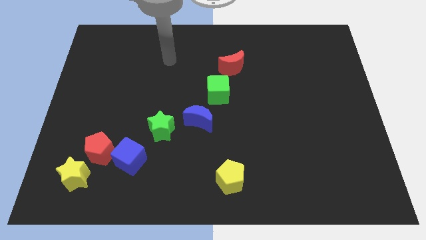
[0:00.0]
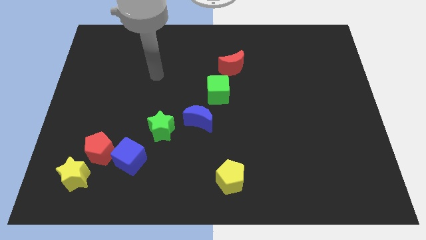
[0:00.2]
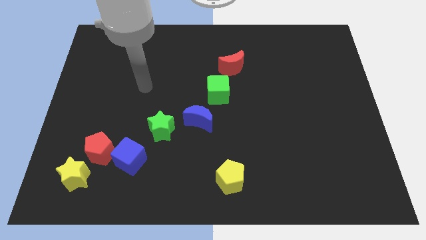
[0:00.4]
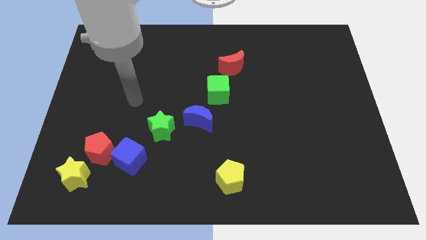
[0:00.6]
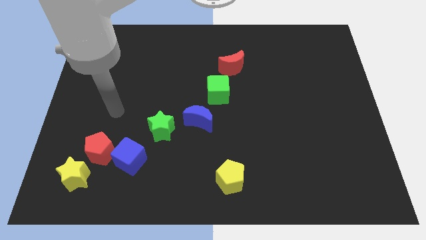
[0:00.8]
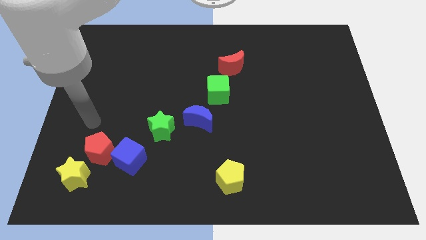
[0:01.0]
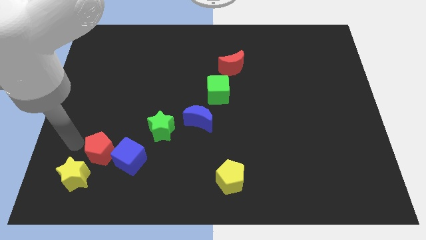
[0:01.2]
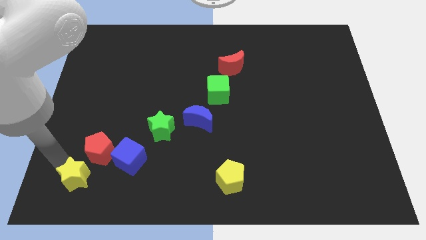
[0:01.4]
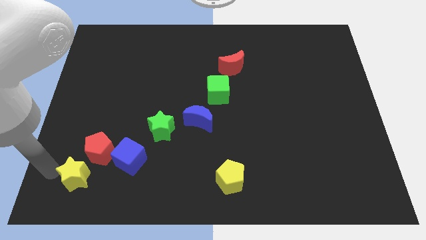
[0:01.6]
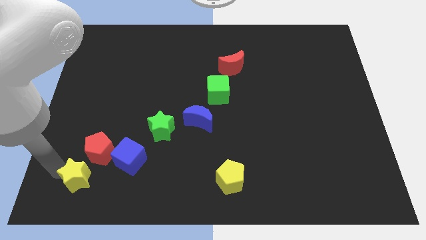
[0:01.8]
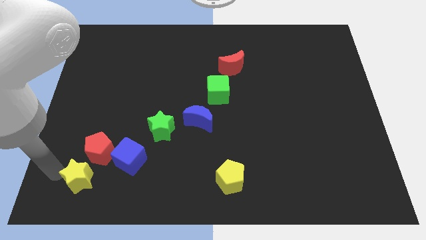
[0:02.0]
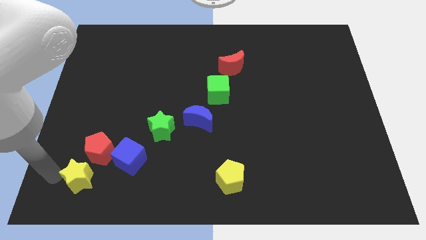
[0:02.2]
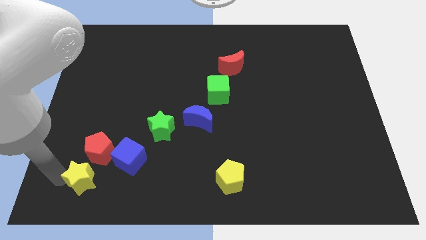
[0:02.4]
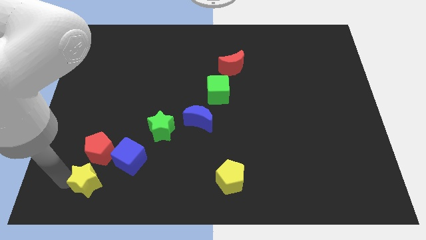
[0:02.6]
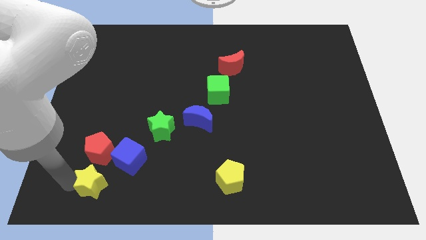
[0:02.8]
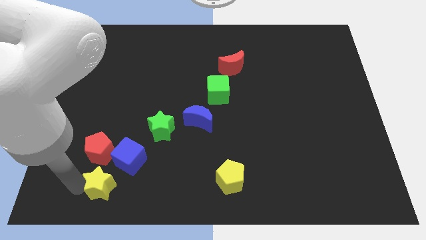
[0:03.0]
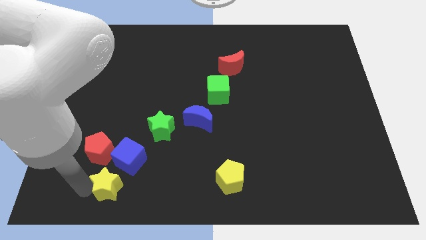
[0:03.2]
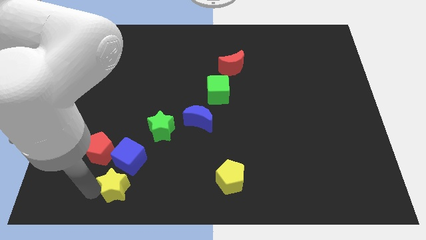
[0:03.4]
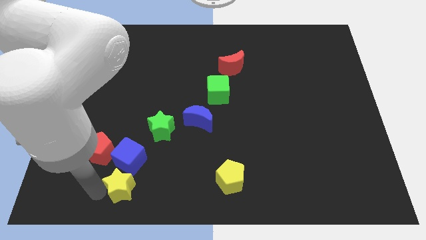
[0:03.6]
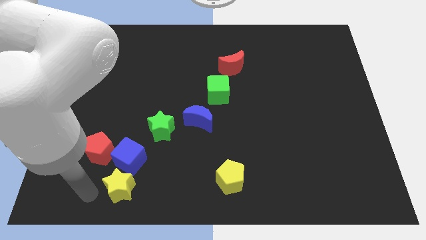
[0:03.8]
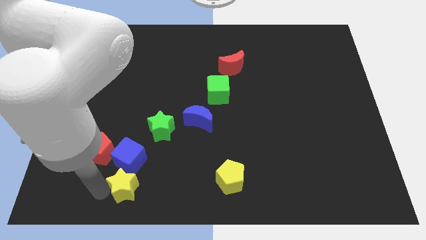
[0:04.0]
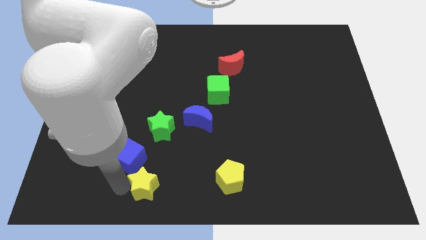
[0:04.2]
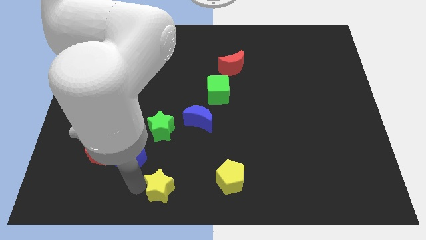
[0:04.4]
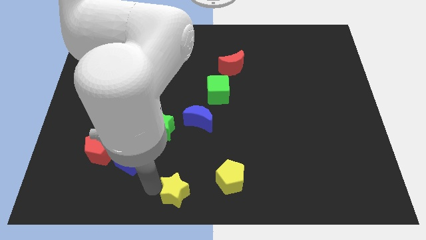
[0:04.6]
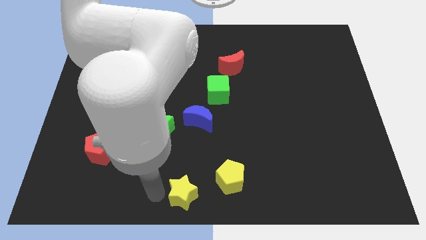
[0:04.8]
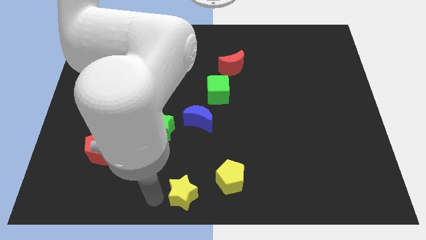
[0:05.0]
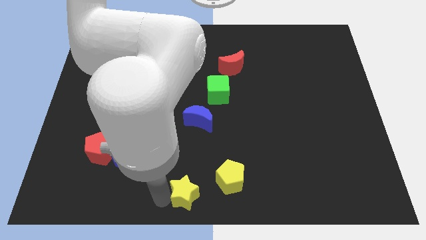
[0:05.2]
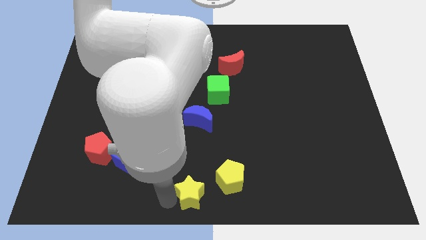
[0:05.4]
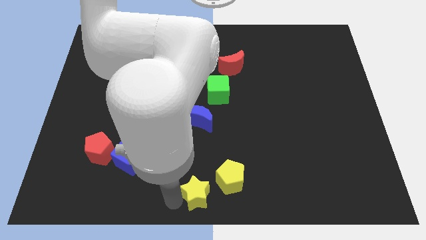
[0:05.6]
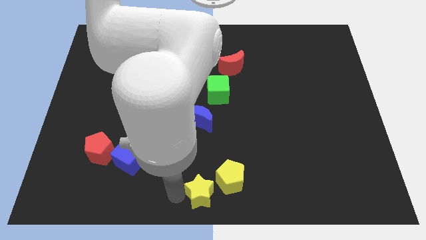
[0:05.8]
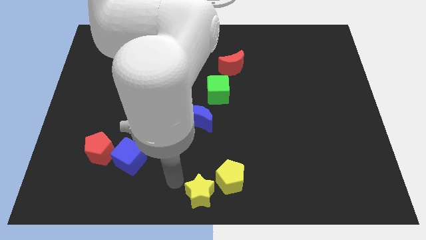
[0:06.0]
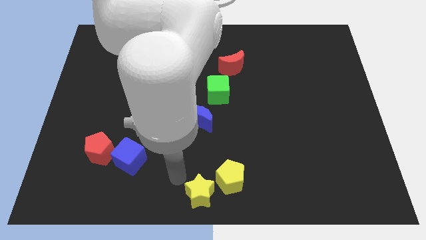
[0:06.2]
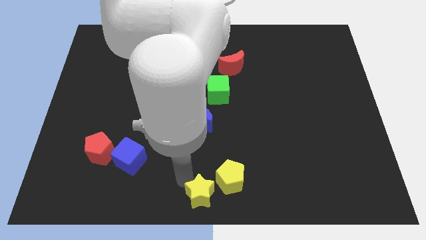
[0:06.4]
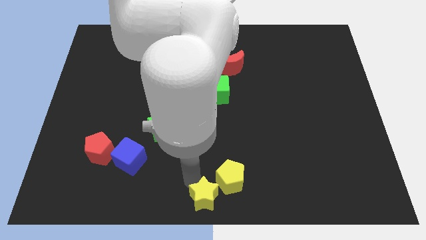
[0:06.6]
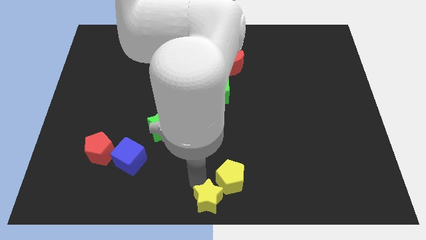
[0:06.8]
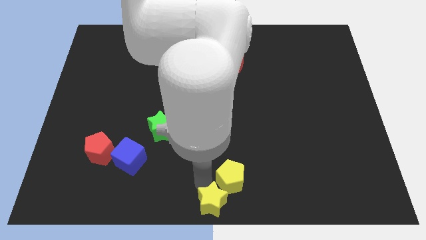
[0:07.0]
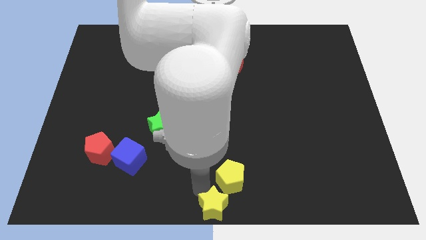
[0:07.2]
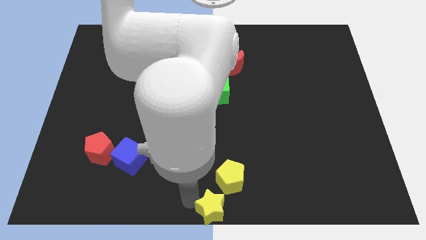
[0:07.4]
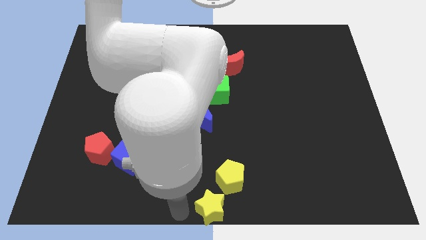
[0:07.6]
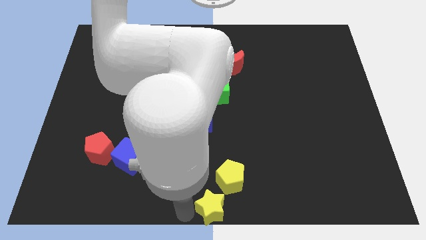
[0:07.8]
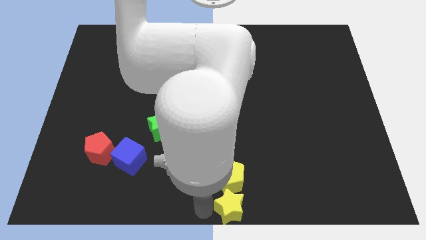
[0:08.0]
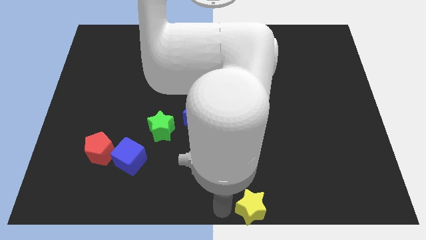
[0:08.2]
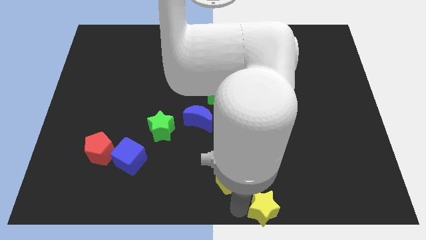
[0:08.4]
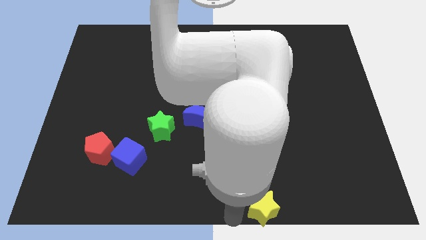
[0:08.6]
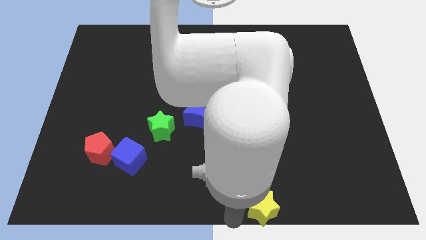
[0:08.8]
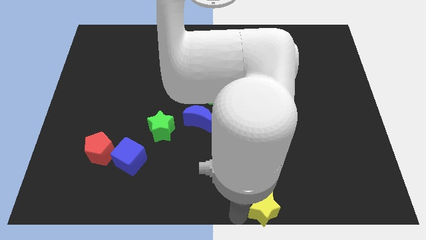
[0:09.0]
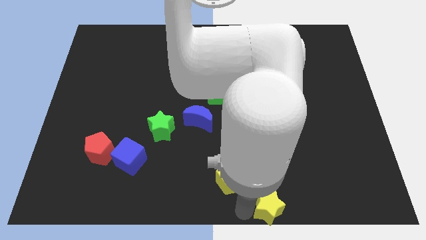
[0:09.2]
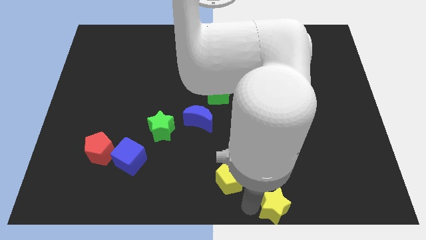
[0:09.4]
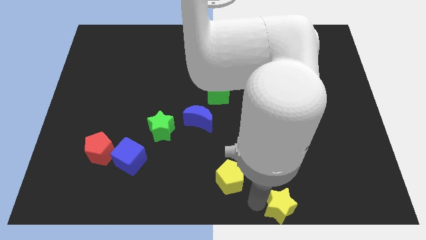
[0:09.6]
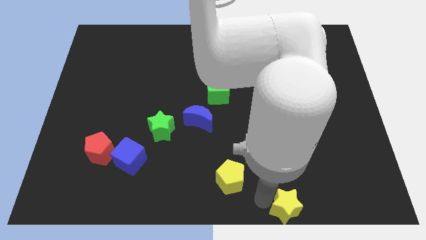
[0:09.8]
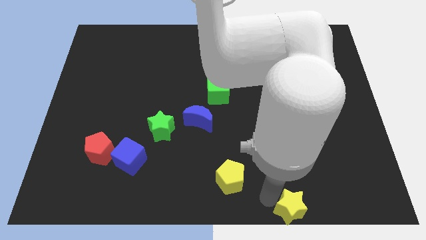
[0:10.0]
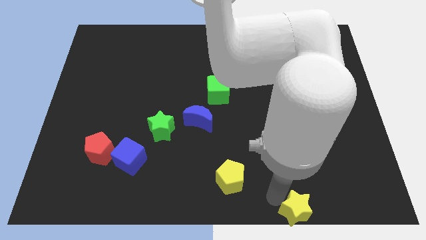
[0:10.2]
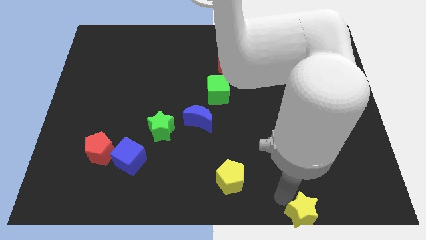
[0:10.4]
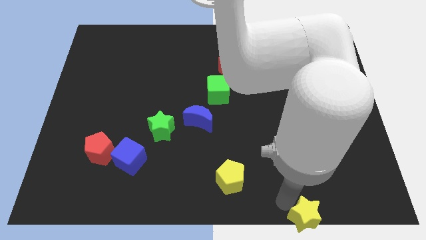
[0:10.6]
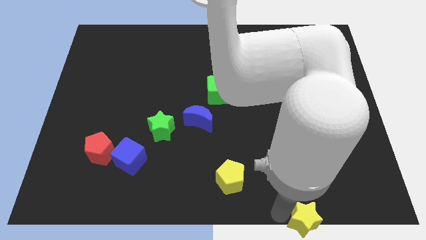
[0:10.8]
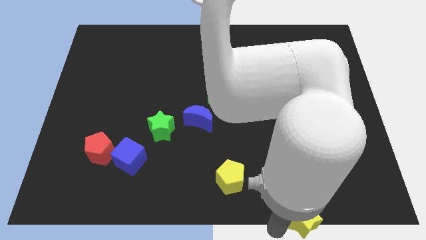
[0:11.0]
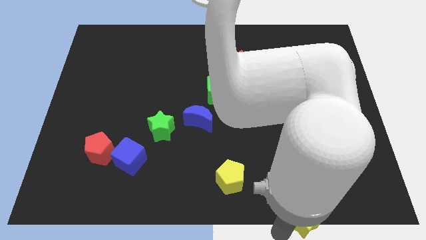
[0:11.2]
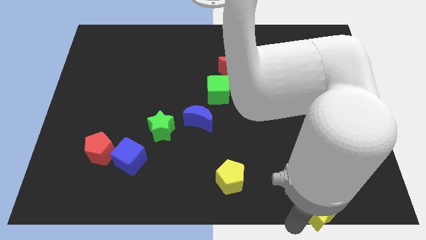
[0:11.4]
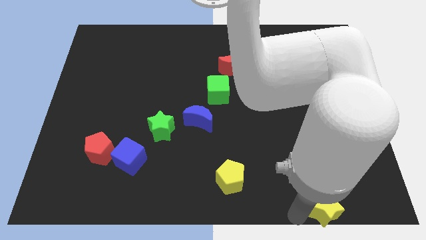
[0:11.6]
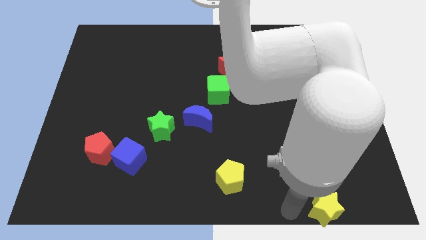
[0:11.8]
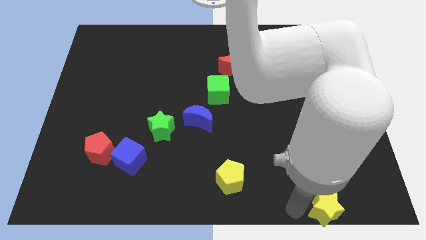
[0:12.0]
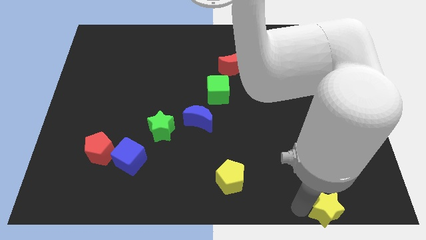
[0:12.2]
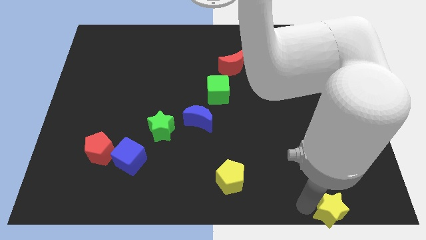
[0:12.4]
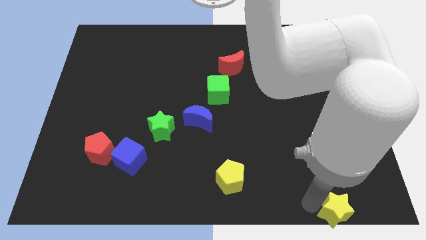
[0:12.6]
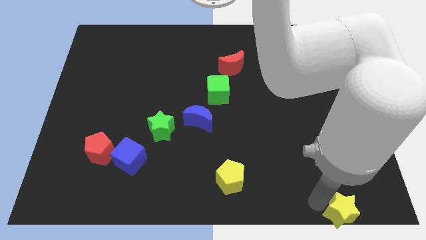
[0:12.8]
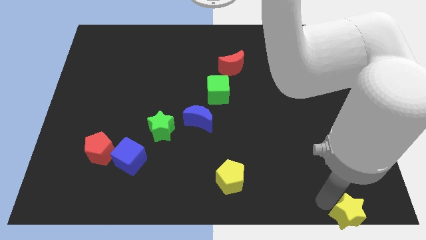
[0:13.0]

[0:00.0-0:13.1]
push the yellow star to the bottom right corner

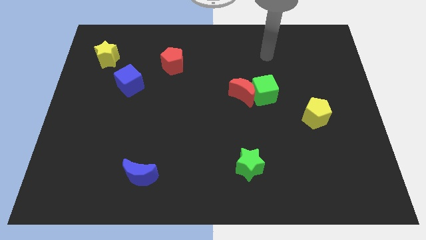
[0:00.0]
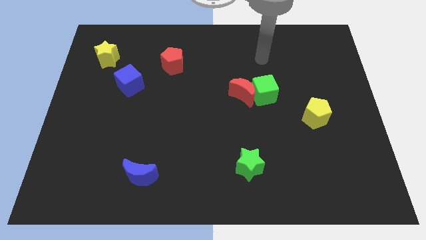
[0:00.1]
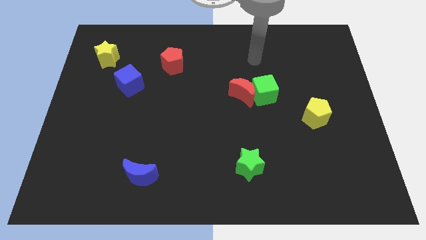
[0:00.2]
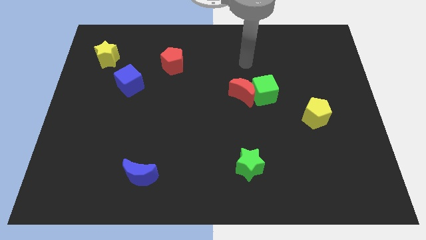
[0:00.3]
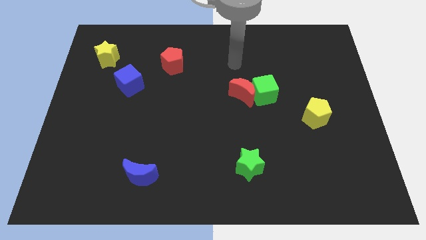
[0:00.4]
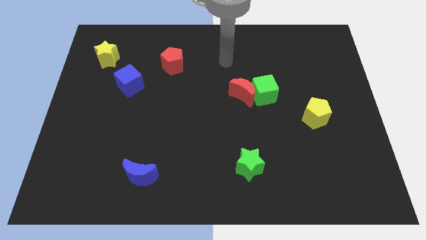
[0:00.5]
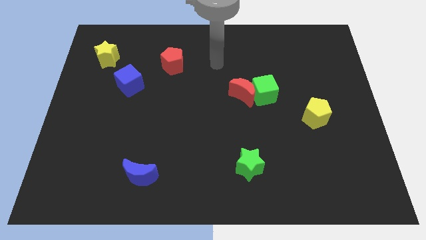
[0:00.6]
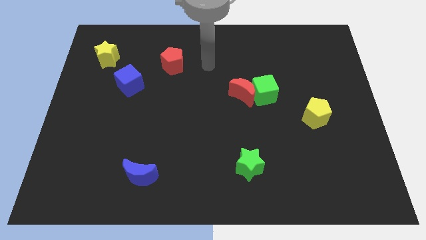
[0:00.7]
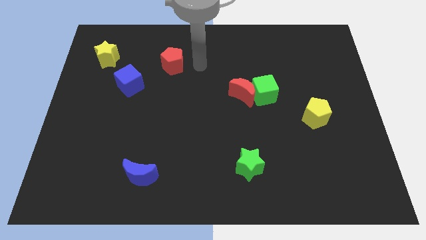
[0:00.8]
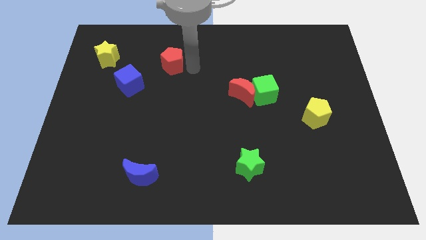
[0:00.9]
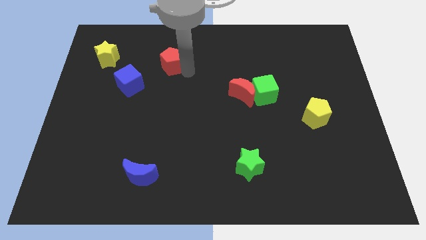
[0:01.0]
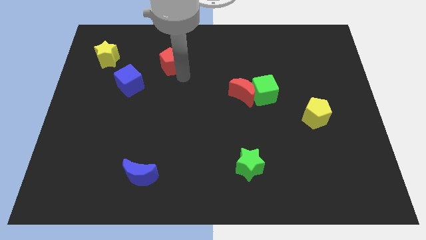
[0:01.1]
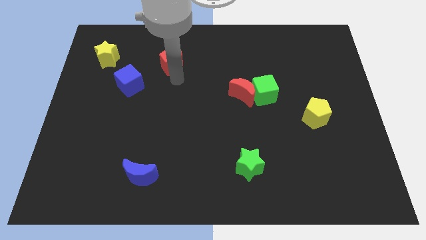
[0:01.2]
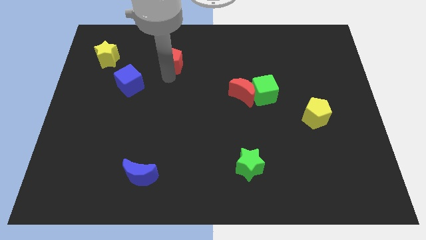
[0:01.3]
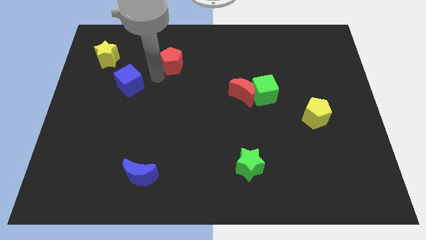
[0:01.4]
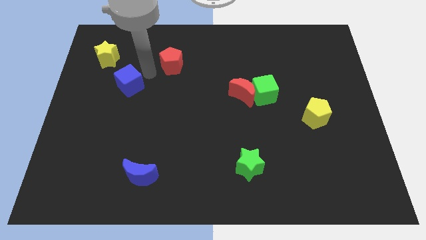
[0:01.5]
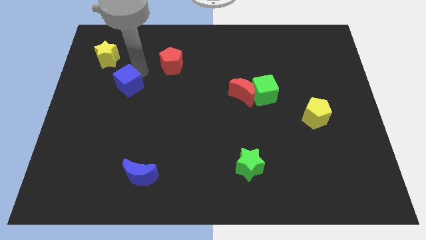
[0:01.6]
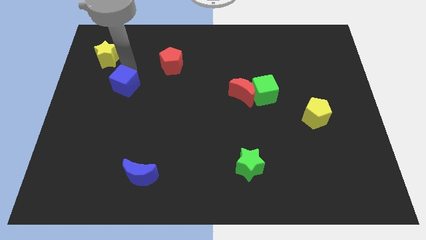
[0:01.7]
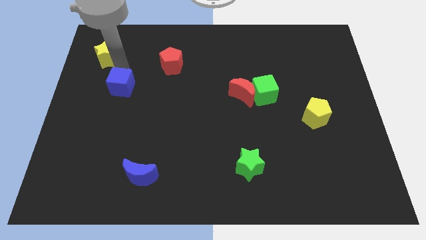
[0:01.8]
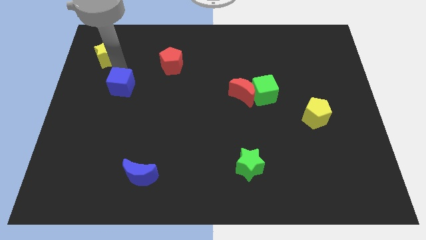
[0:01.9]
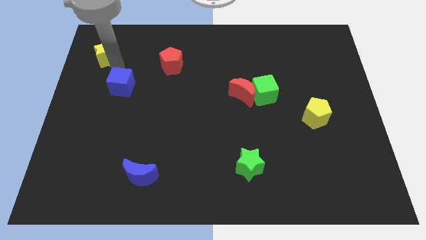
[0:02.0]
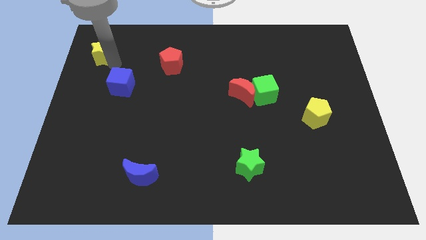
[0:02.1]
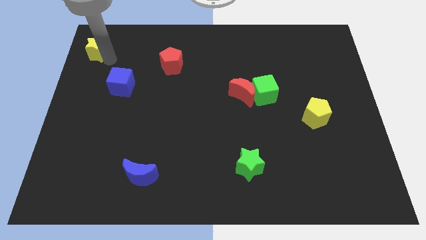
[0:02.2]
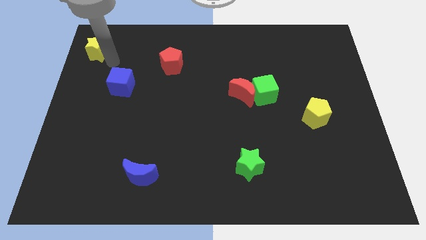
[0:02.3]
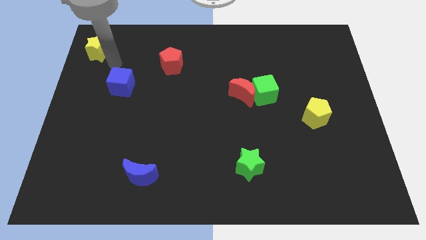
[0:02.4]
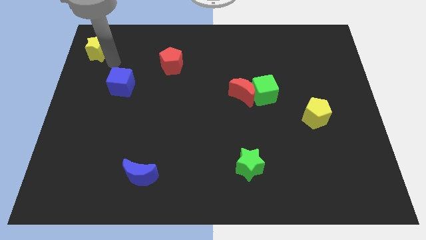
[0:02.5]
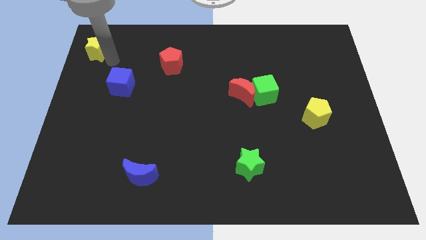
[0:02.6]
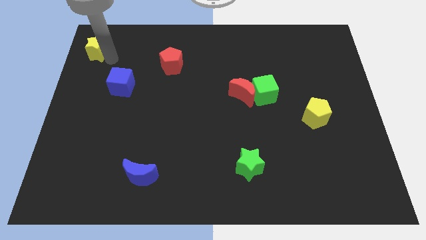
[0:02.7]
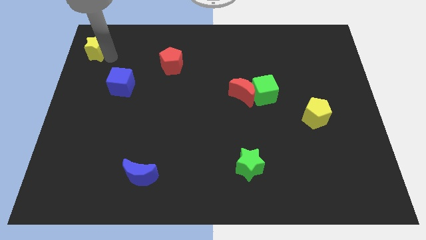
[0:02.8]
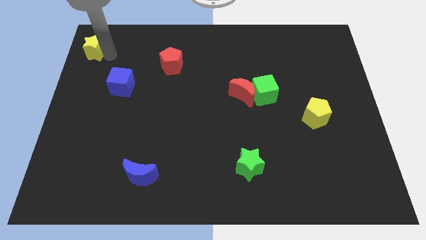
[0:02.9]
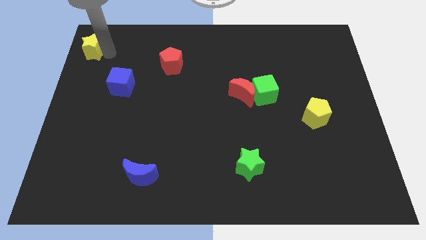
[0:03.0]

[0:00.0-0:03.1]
push the yellow star to the upper left corner
